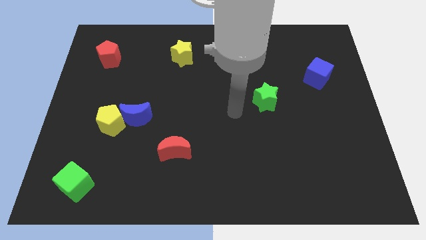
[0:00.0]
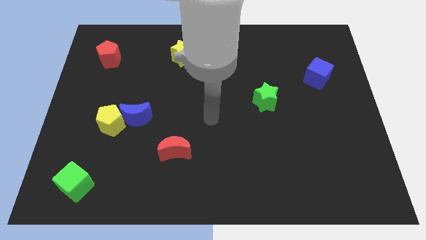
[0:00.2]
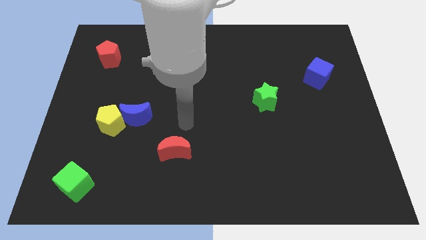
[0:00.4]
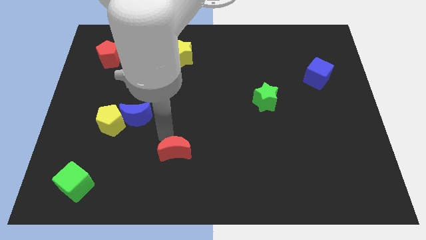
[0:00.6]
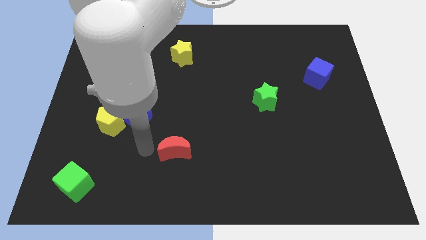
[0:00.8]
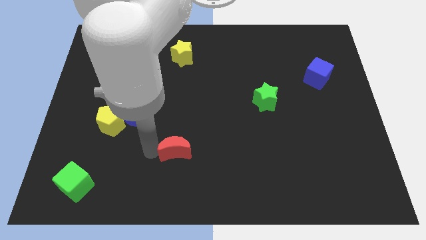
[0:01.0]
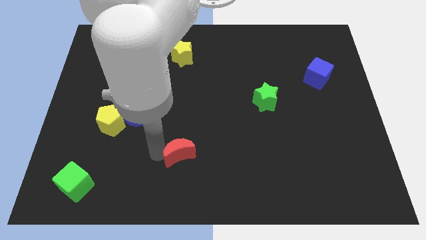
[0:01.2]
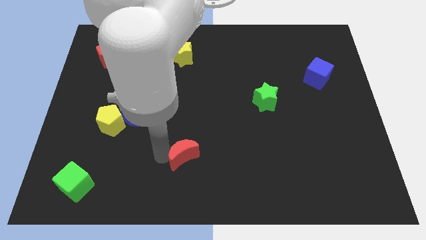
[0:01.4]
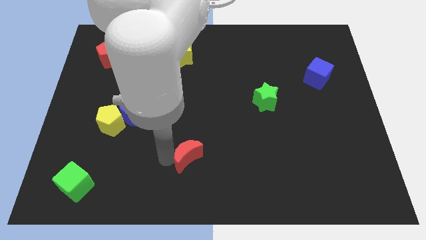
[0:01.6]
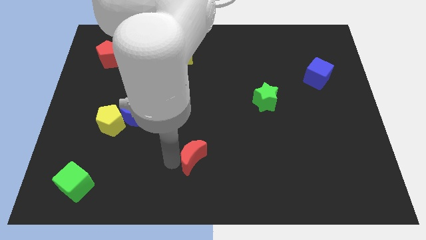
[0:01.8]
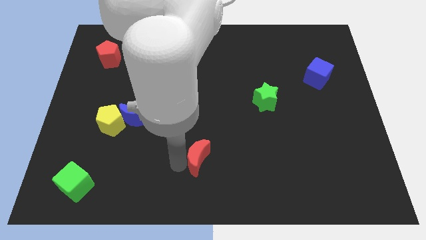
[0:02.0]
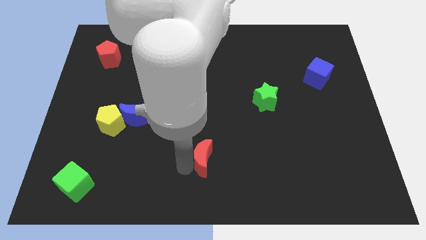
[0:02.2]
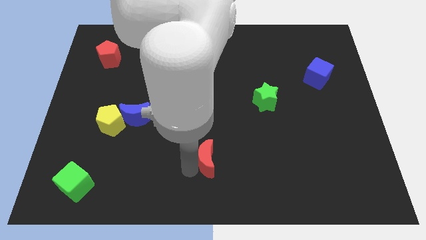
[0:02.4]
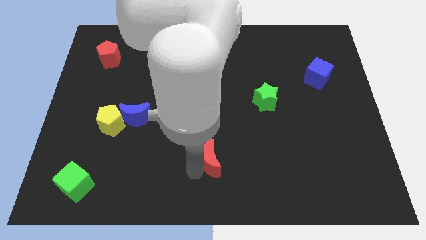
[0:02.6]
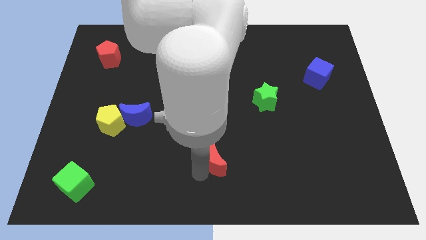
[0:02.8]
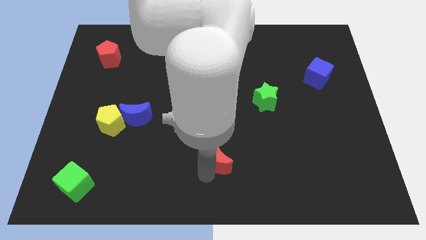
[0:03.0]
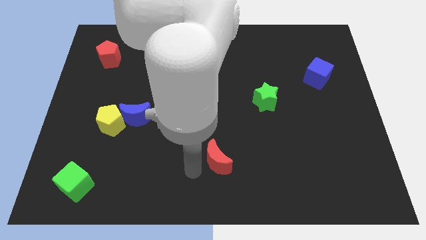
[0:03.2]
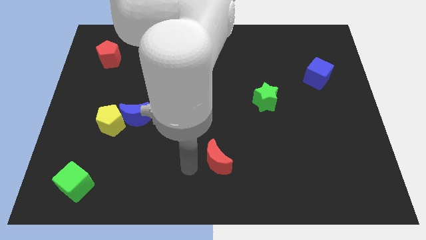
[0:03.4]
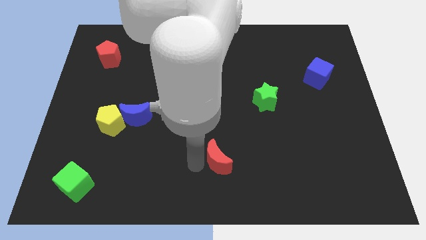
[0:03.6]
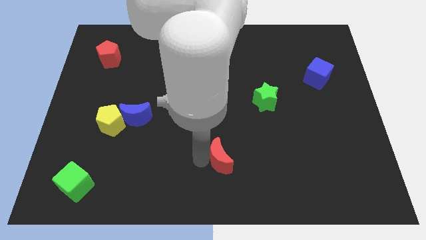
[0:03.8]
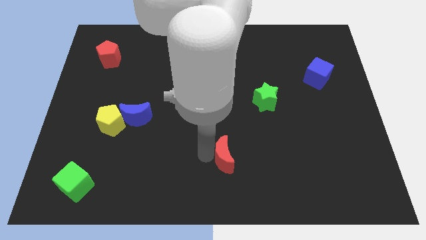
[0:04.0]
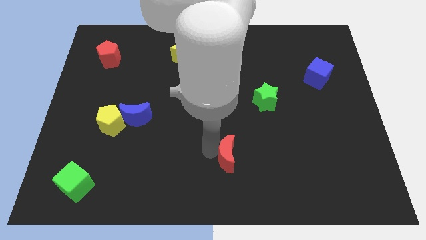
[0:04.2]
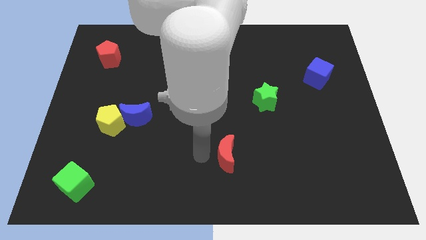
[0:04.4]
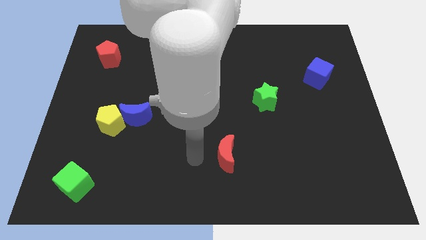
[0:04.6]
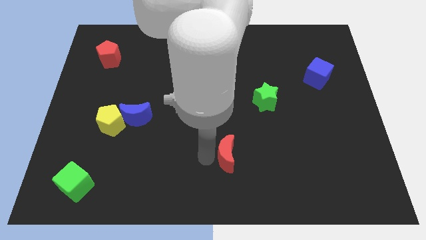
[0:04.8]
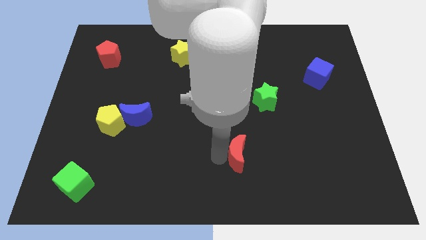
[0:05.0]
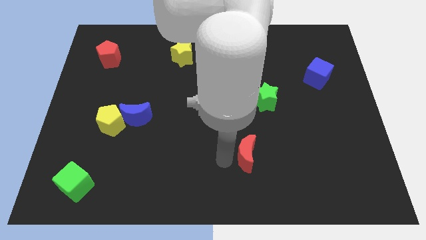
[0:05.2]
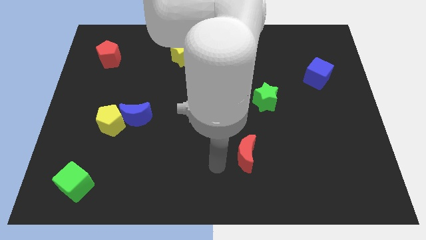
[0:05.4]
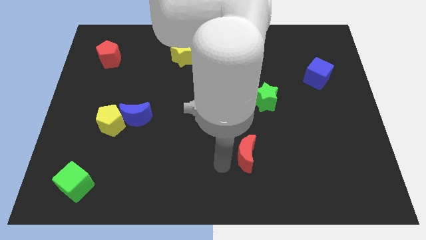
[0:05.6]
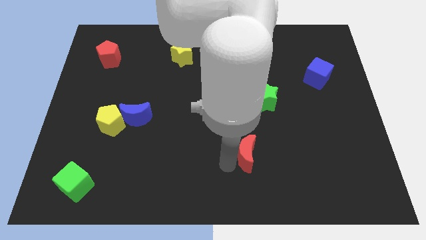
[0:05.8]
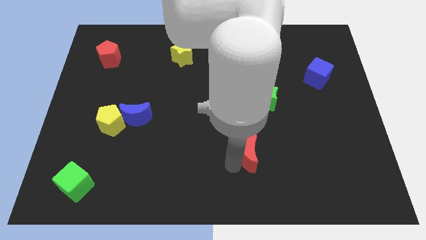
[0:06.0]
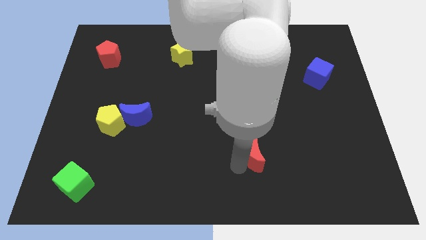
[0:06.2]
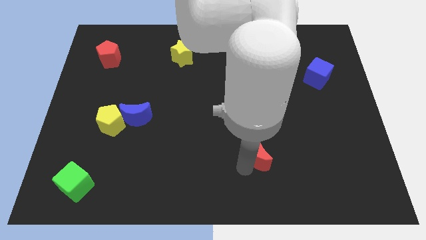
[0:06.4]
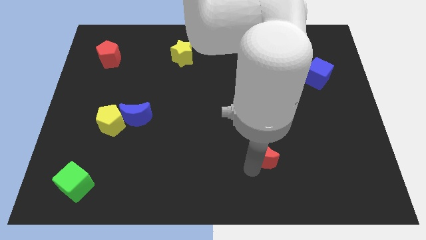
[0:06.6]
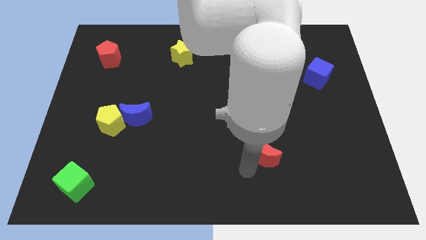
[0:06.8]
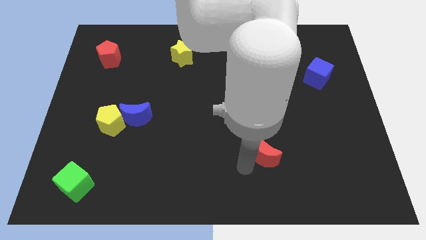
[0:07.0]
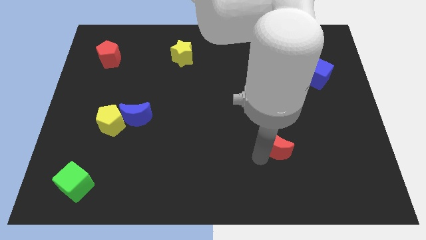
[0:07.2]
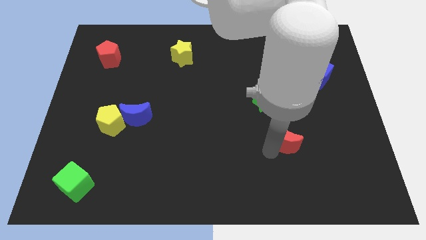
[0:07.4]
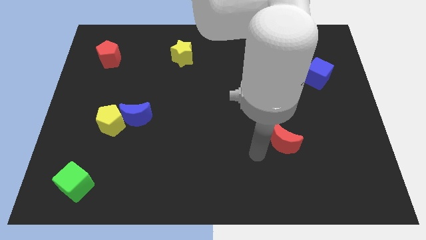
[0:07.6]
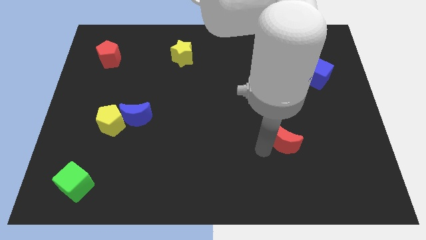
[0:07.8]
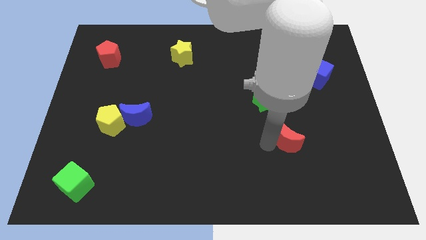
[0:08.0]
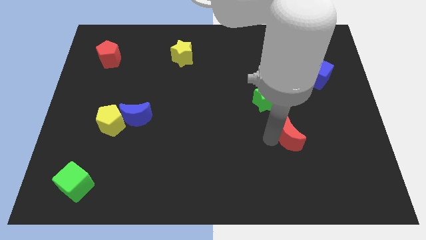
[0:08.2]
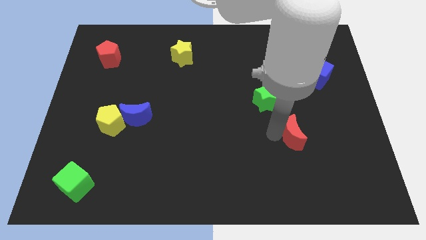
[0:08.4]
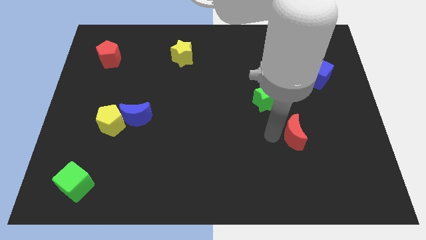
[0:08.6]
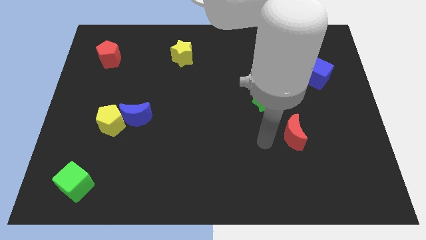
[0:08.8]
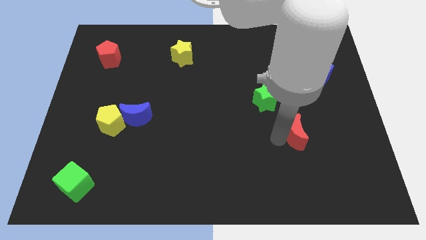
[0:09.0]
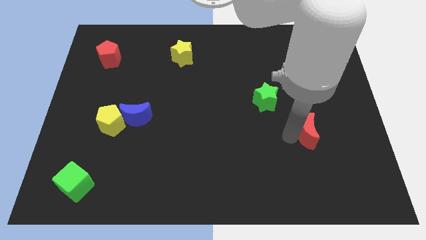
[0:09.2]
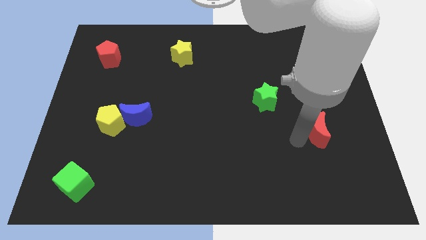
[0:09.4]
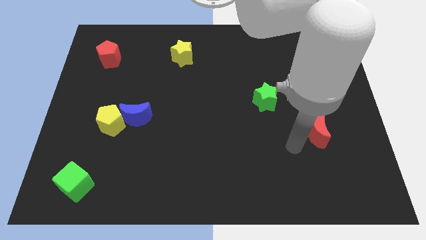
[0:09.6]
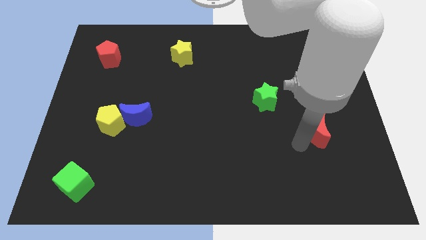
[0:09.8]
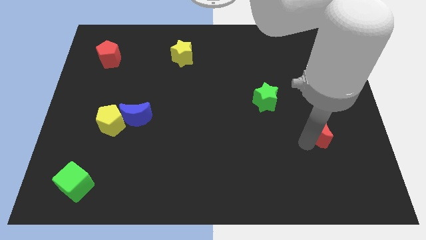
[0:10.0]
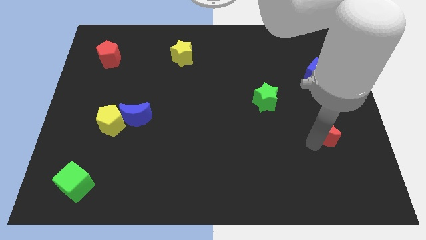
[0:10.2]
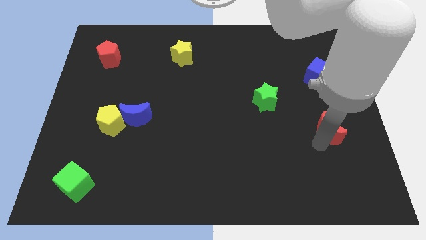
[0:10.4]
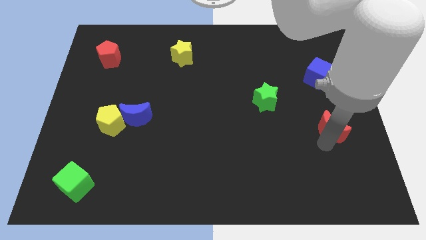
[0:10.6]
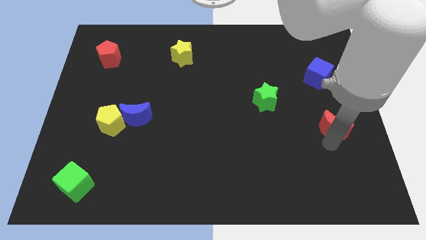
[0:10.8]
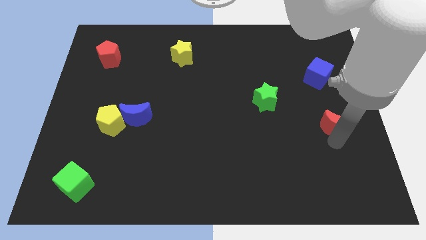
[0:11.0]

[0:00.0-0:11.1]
put the red moon to the right side of the board
